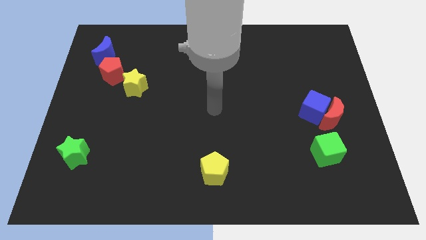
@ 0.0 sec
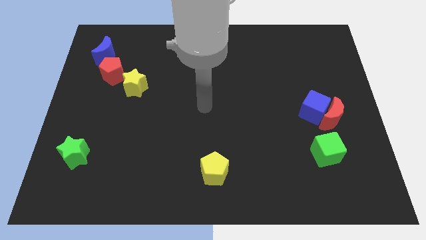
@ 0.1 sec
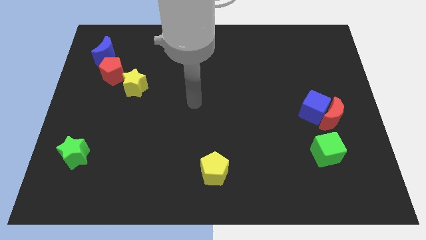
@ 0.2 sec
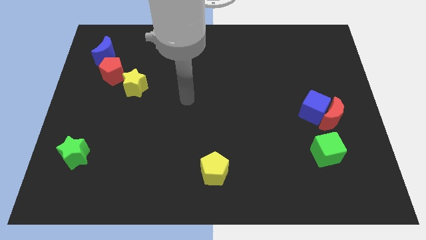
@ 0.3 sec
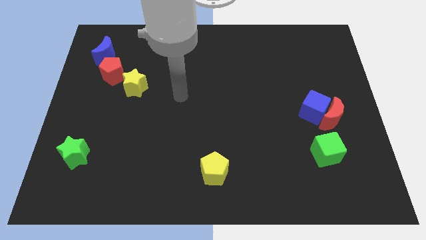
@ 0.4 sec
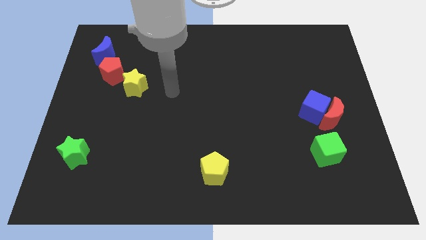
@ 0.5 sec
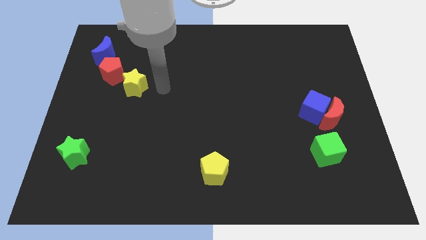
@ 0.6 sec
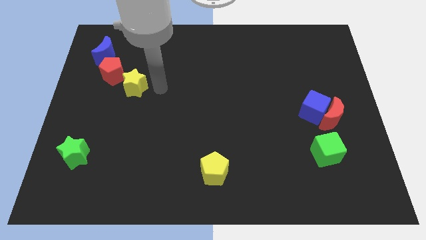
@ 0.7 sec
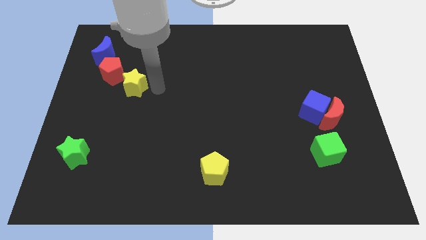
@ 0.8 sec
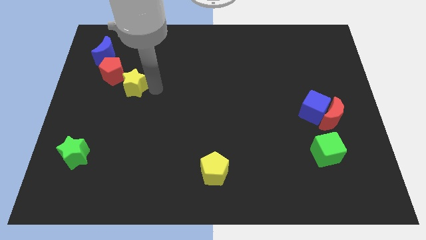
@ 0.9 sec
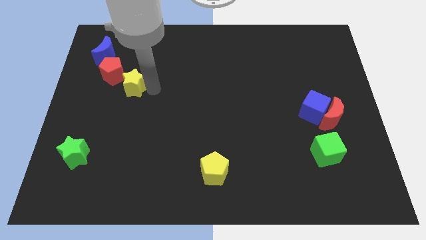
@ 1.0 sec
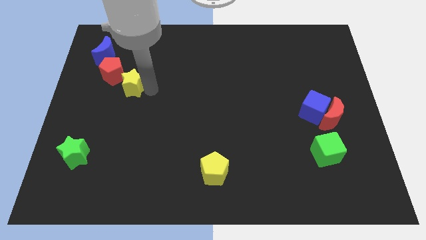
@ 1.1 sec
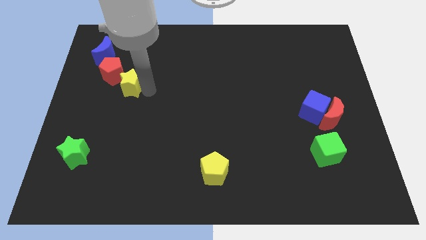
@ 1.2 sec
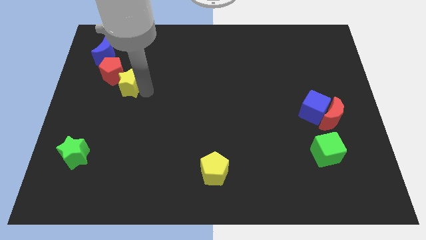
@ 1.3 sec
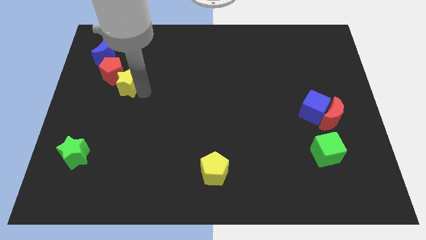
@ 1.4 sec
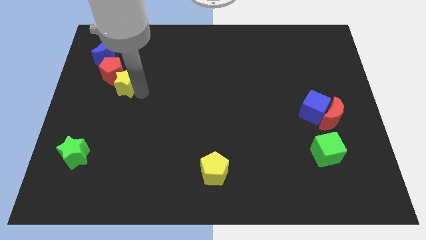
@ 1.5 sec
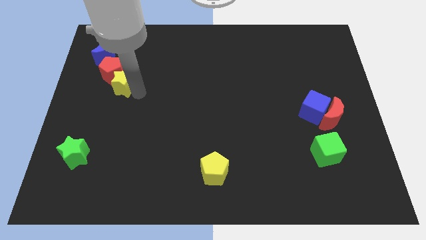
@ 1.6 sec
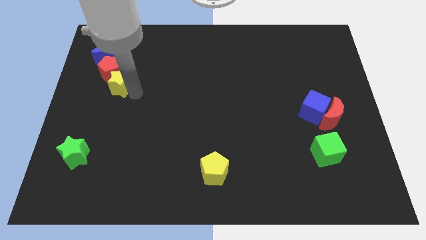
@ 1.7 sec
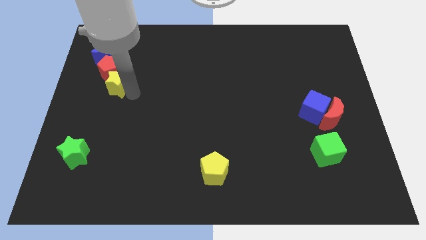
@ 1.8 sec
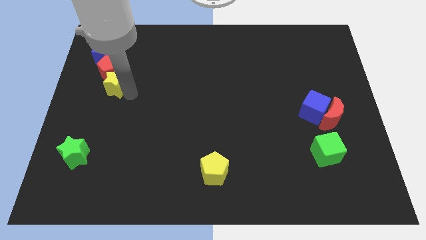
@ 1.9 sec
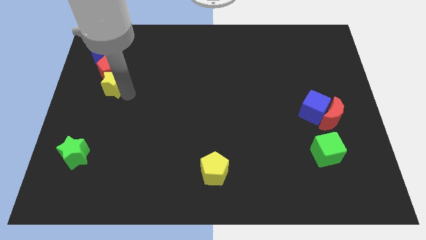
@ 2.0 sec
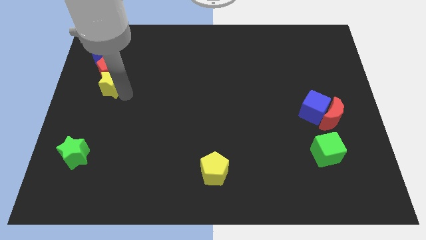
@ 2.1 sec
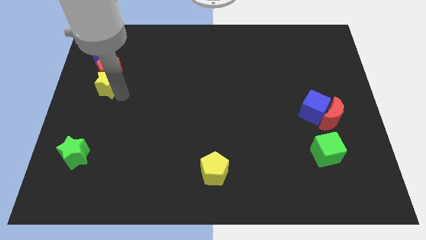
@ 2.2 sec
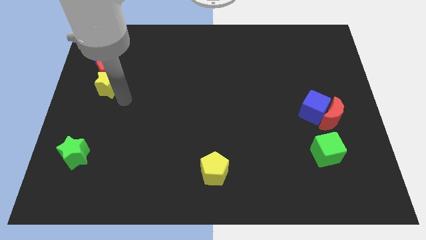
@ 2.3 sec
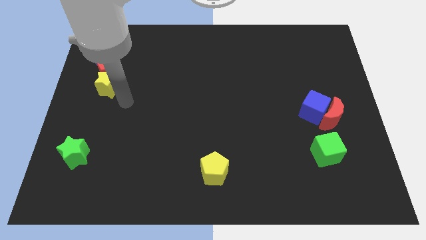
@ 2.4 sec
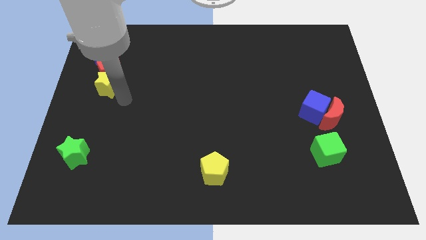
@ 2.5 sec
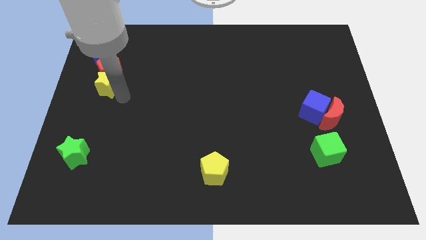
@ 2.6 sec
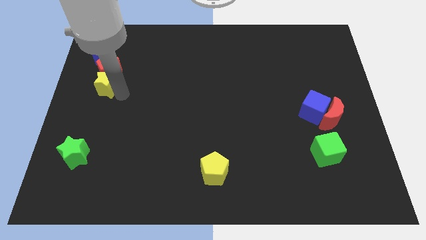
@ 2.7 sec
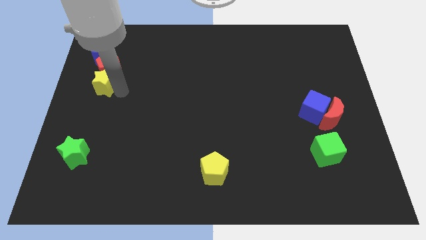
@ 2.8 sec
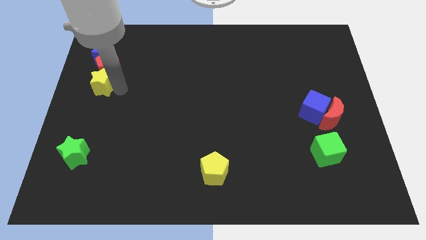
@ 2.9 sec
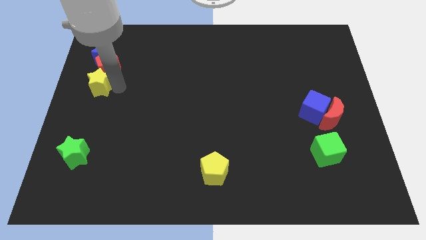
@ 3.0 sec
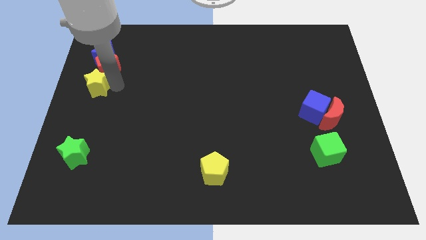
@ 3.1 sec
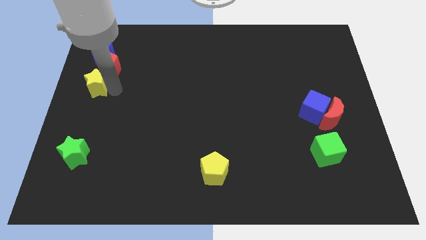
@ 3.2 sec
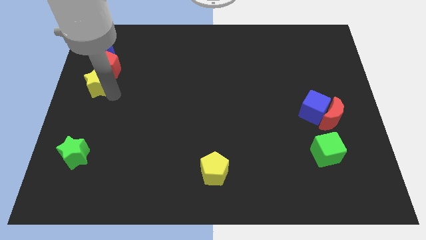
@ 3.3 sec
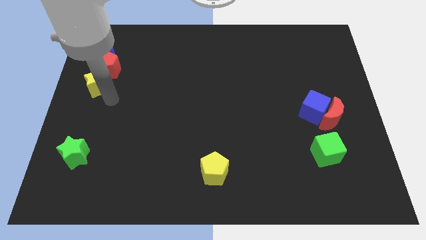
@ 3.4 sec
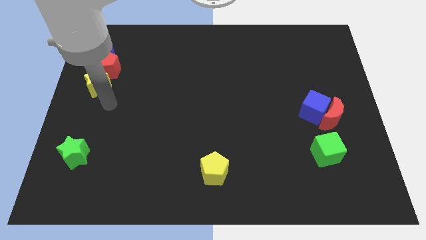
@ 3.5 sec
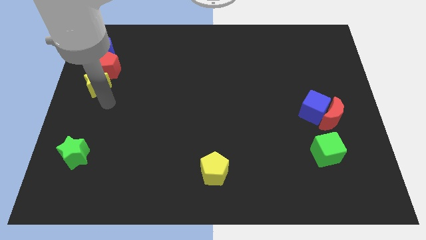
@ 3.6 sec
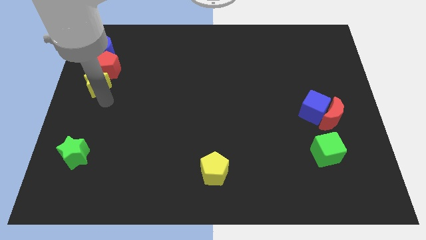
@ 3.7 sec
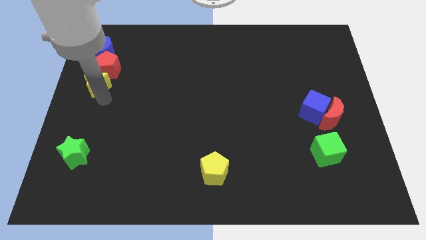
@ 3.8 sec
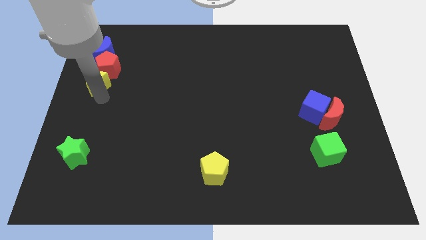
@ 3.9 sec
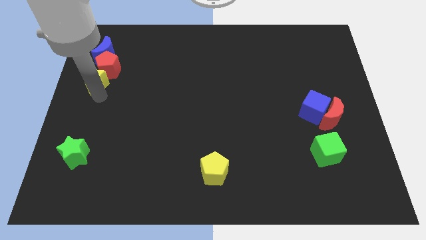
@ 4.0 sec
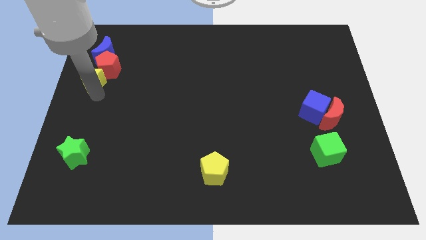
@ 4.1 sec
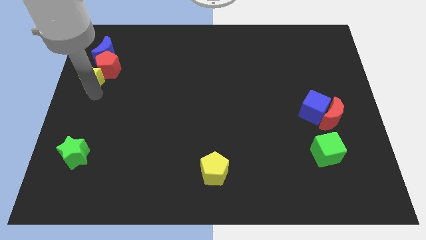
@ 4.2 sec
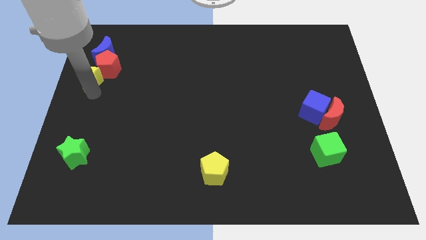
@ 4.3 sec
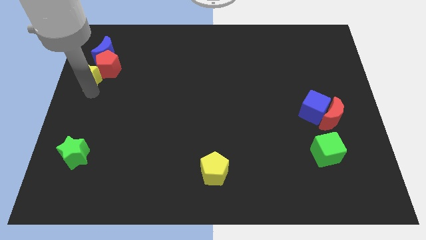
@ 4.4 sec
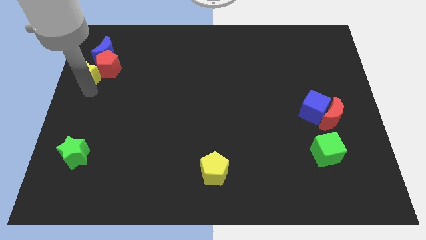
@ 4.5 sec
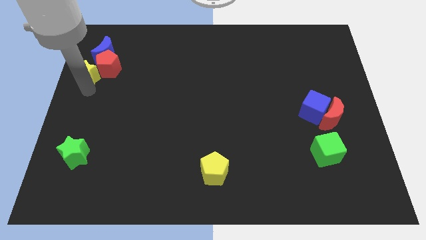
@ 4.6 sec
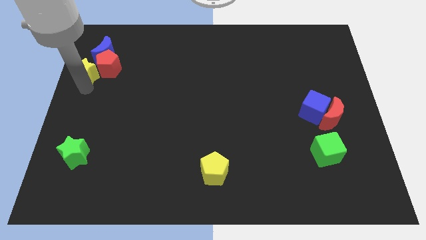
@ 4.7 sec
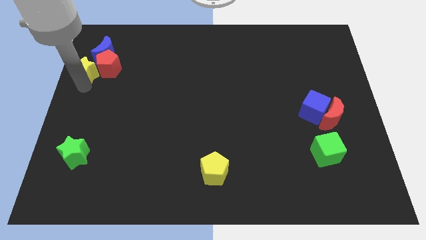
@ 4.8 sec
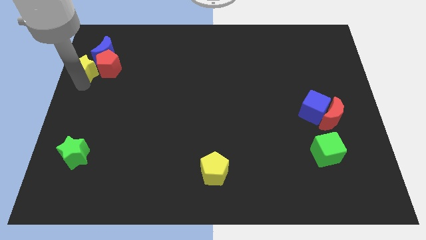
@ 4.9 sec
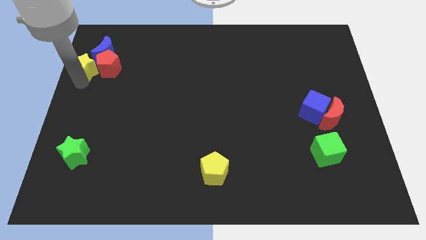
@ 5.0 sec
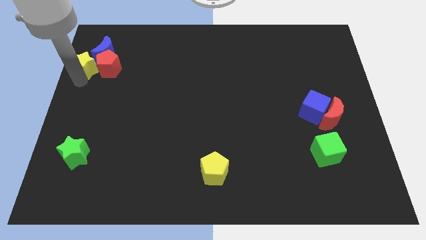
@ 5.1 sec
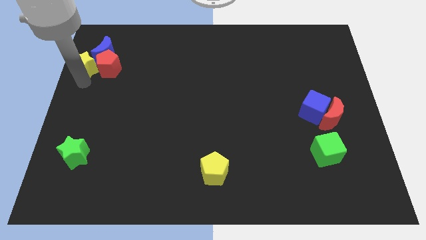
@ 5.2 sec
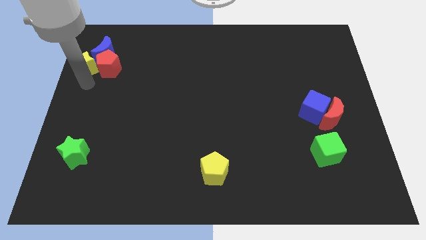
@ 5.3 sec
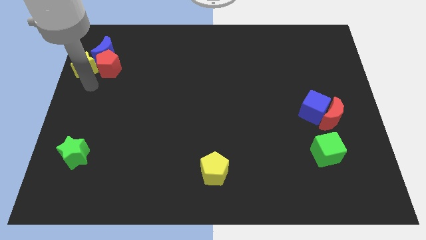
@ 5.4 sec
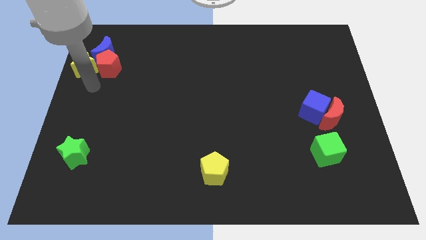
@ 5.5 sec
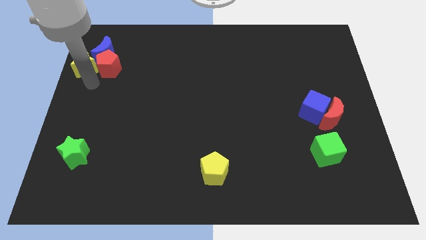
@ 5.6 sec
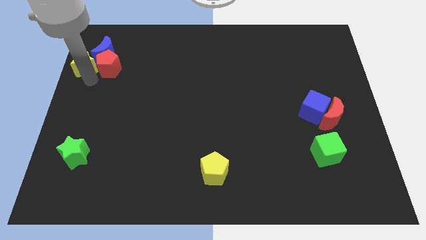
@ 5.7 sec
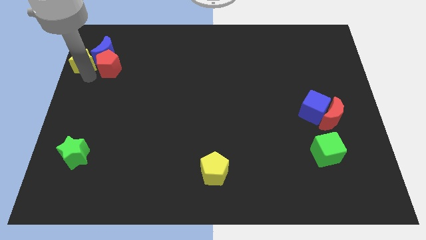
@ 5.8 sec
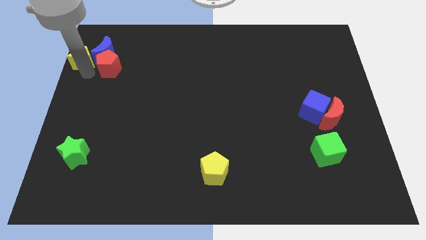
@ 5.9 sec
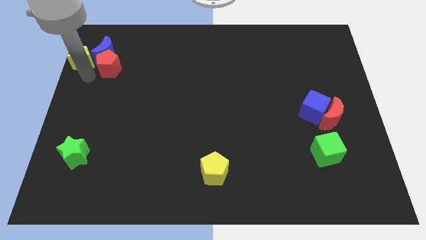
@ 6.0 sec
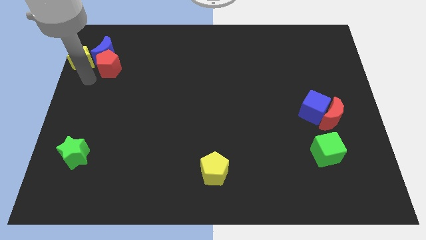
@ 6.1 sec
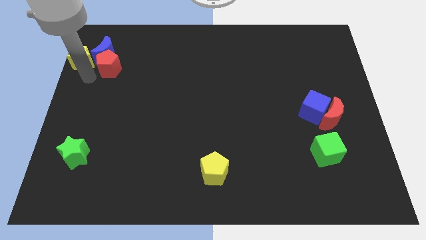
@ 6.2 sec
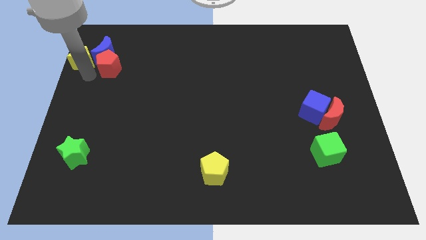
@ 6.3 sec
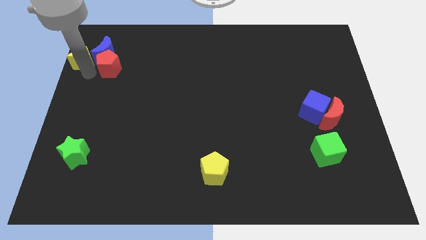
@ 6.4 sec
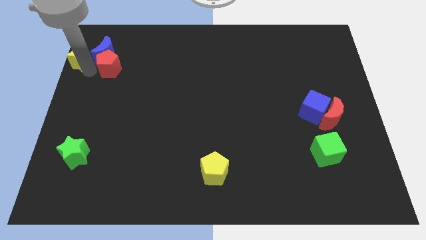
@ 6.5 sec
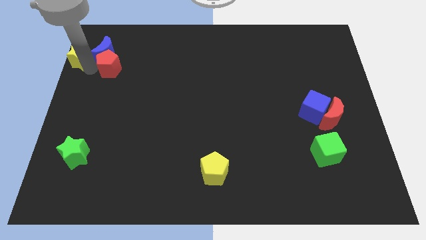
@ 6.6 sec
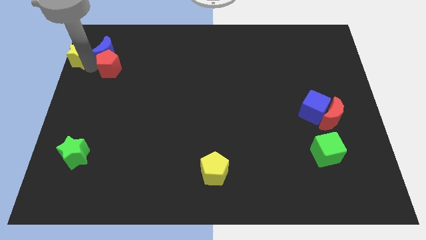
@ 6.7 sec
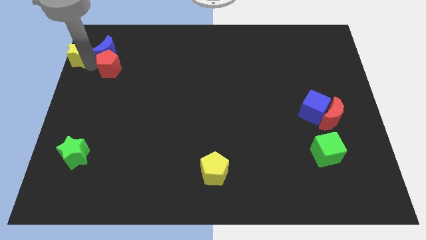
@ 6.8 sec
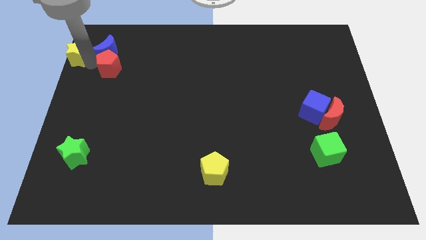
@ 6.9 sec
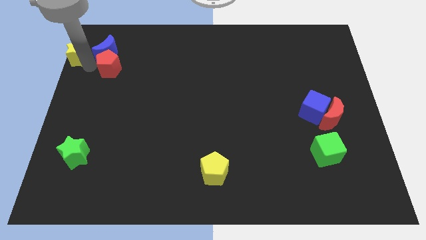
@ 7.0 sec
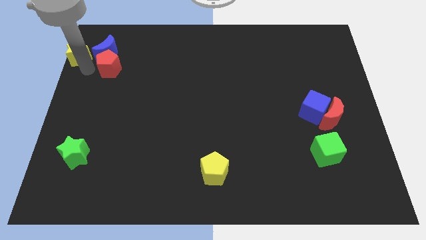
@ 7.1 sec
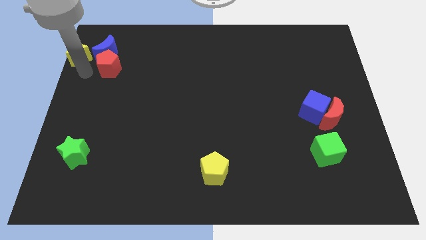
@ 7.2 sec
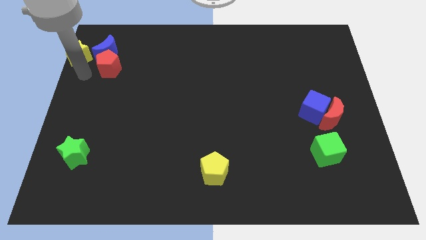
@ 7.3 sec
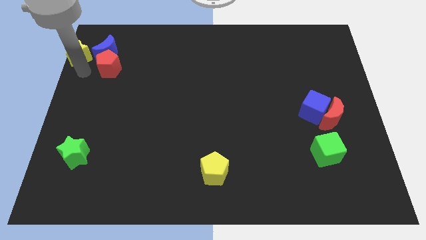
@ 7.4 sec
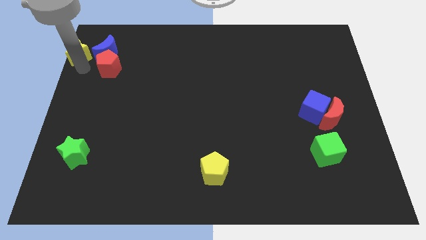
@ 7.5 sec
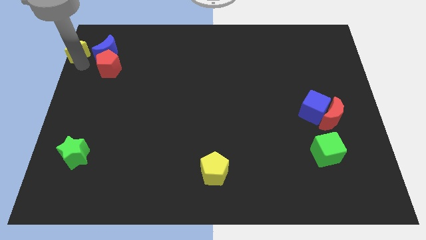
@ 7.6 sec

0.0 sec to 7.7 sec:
move the yellow star to the top left corner
